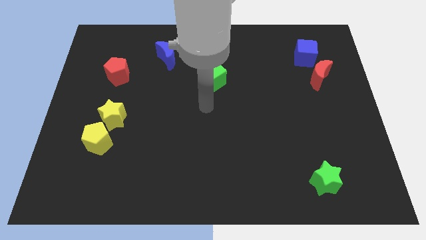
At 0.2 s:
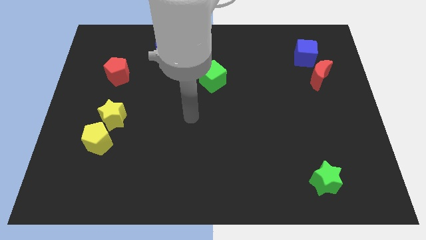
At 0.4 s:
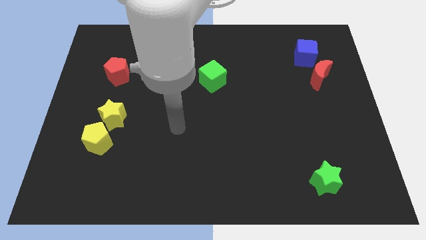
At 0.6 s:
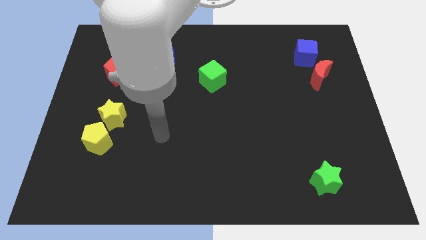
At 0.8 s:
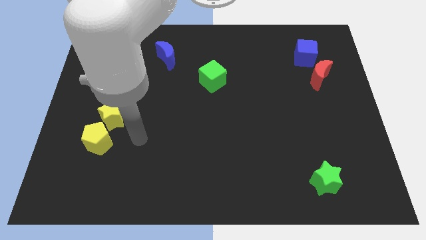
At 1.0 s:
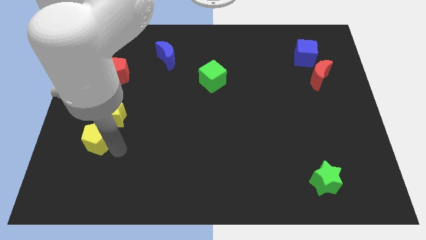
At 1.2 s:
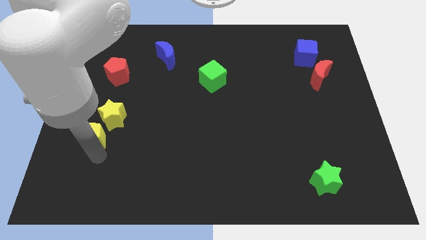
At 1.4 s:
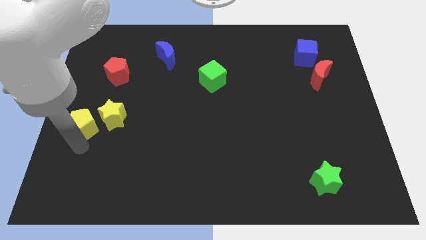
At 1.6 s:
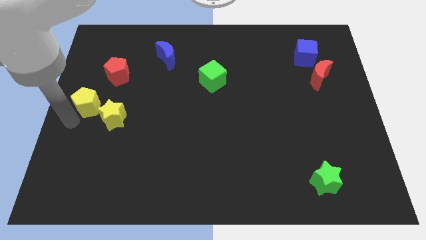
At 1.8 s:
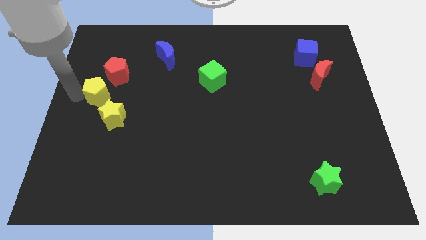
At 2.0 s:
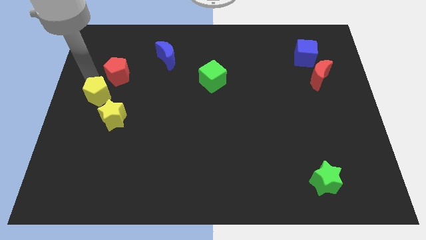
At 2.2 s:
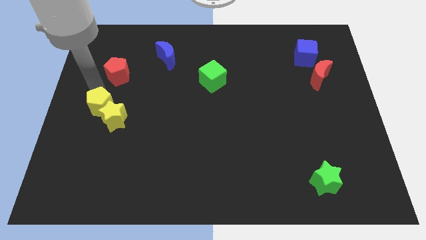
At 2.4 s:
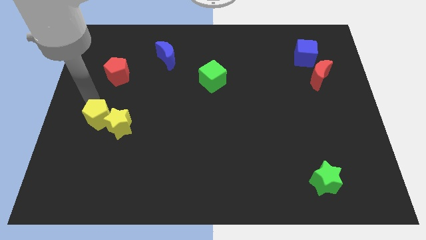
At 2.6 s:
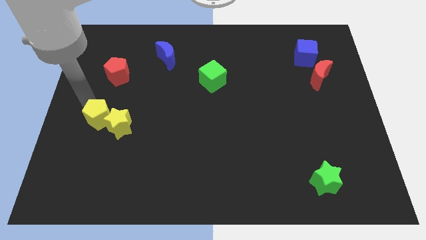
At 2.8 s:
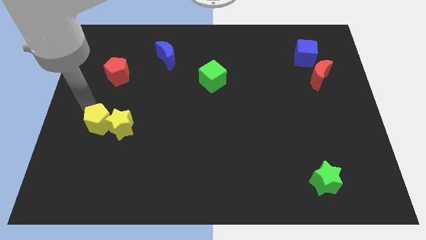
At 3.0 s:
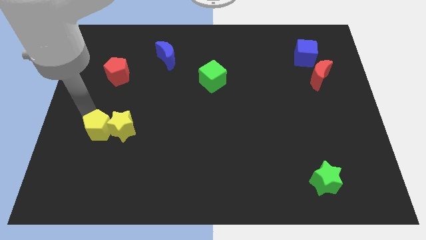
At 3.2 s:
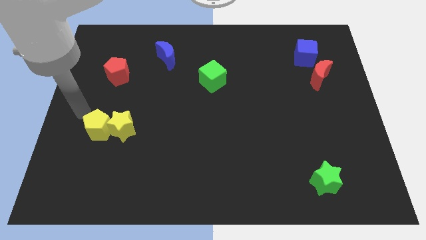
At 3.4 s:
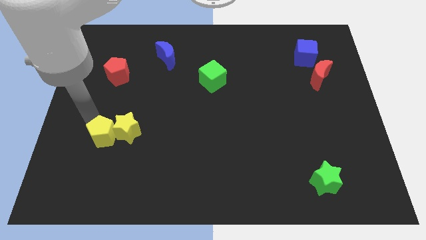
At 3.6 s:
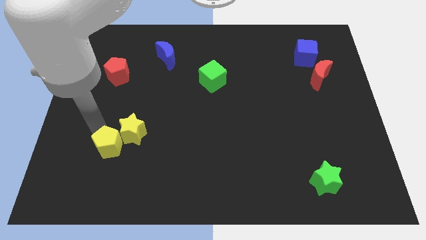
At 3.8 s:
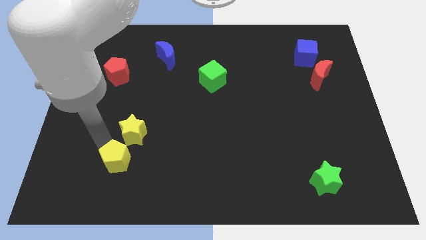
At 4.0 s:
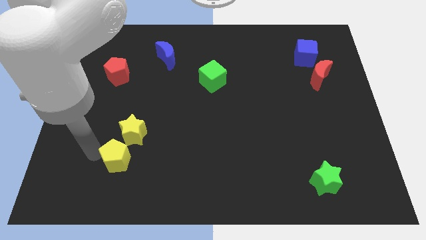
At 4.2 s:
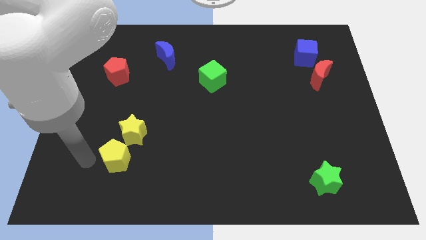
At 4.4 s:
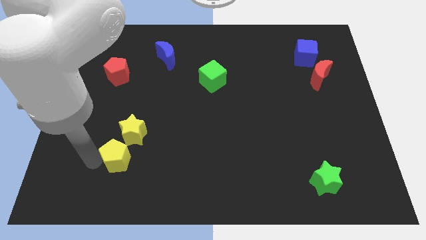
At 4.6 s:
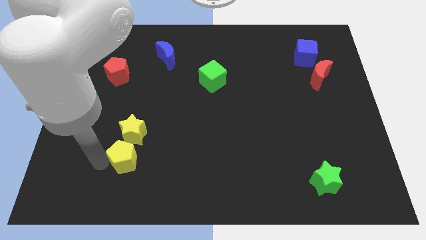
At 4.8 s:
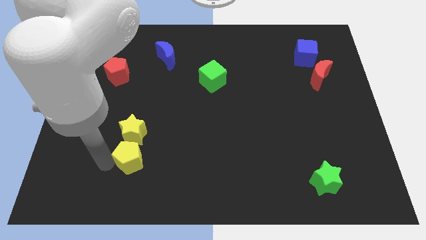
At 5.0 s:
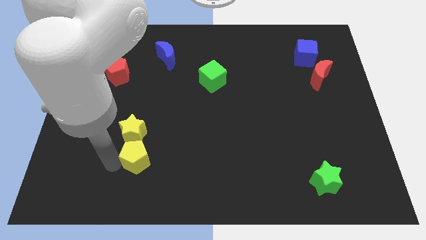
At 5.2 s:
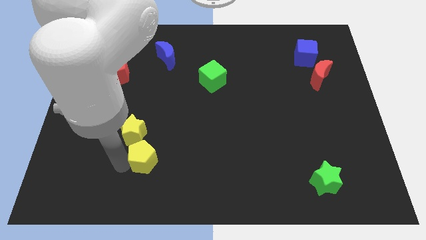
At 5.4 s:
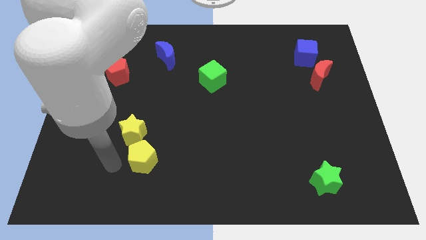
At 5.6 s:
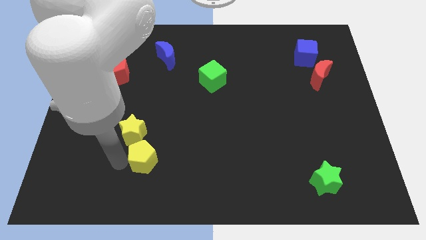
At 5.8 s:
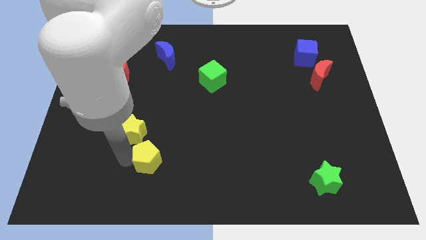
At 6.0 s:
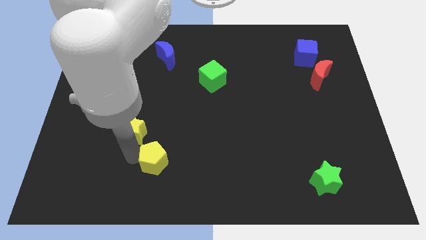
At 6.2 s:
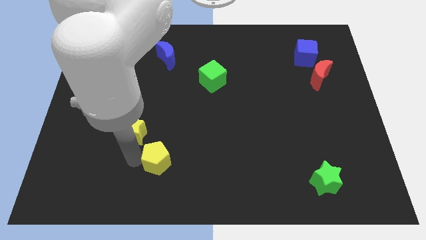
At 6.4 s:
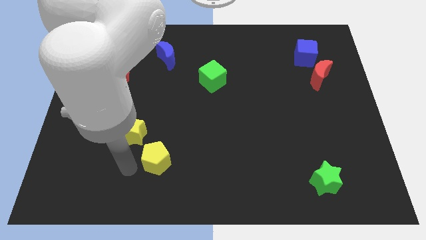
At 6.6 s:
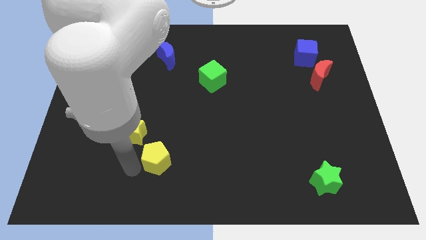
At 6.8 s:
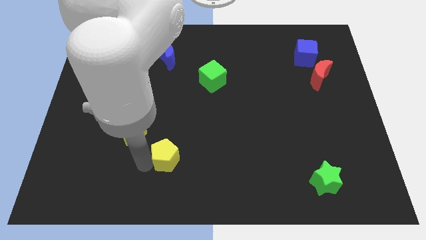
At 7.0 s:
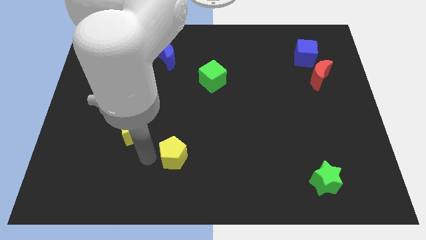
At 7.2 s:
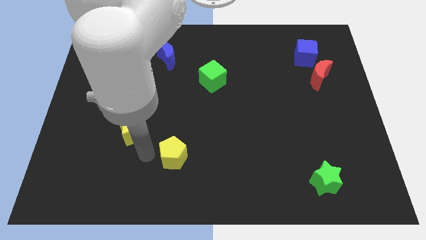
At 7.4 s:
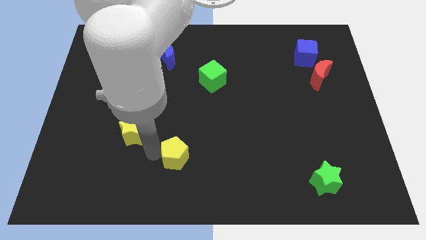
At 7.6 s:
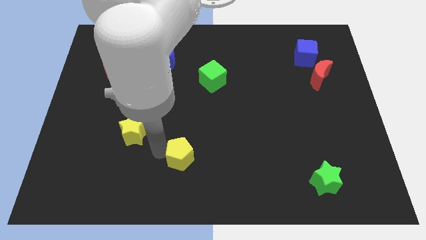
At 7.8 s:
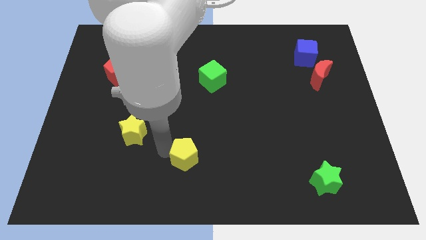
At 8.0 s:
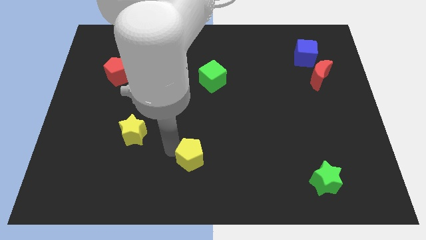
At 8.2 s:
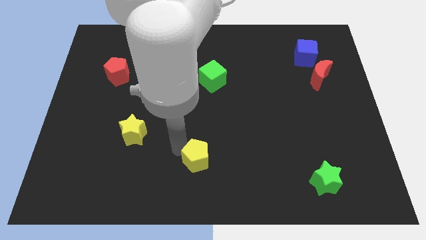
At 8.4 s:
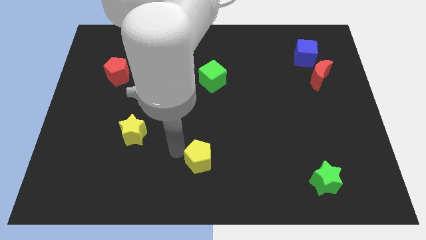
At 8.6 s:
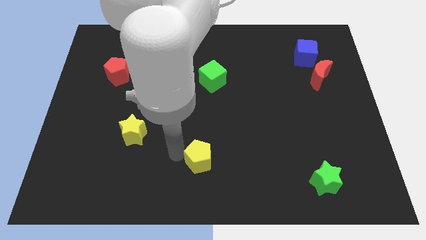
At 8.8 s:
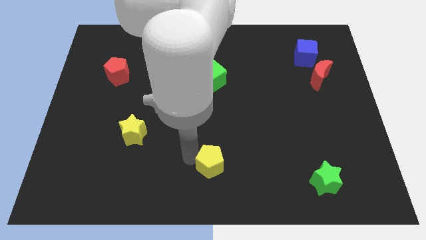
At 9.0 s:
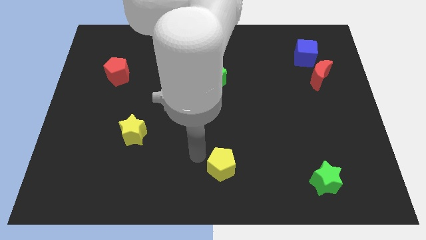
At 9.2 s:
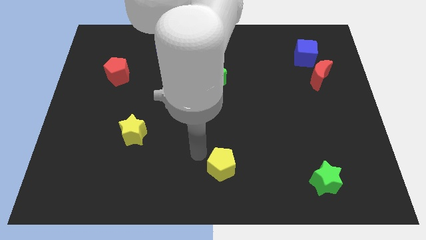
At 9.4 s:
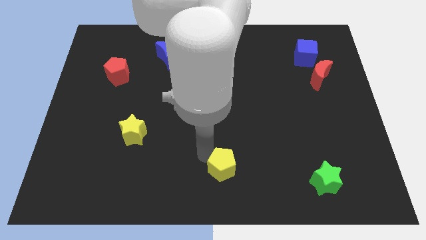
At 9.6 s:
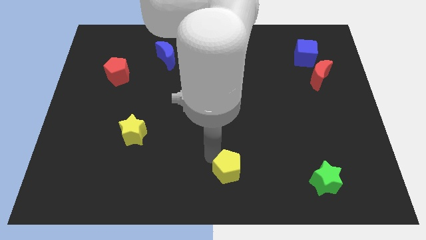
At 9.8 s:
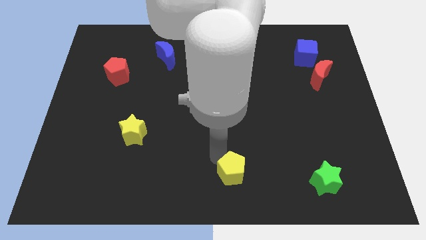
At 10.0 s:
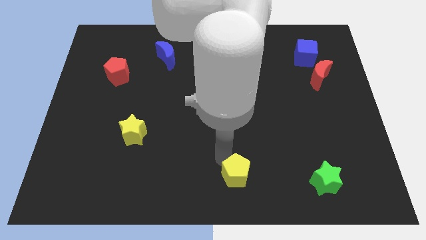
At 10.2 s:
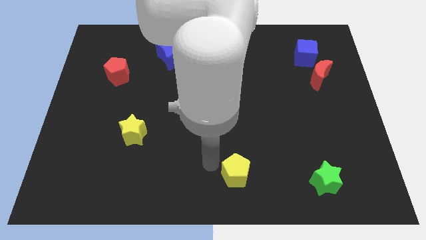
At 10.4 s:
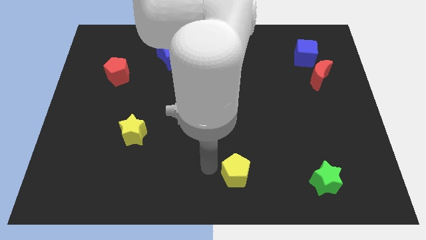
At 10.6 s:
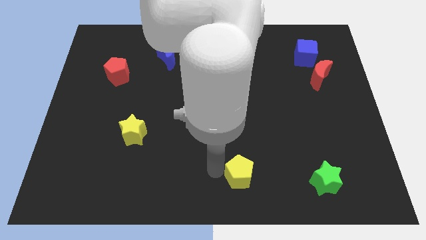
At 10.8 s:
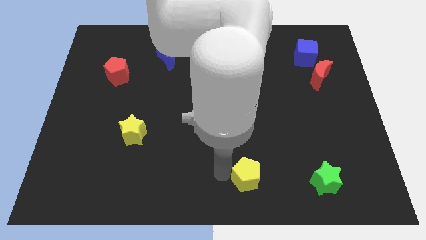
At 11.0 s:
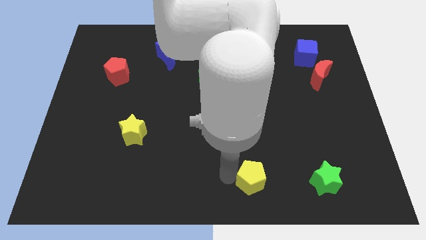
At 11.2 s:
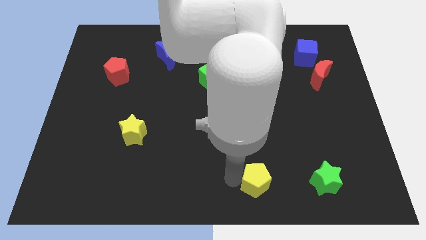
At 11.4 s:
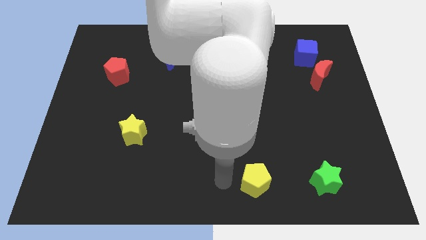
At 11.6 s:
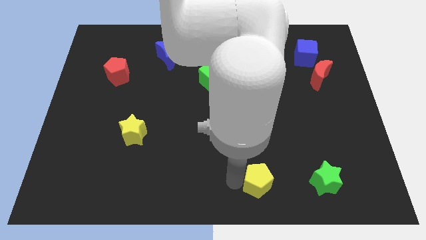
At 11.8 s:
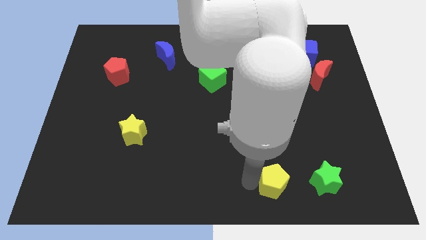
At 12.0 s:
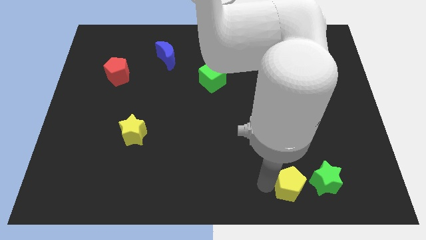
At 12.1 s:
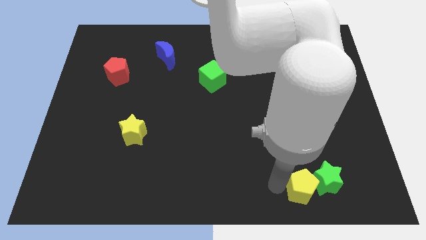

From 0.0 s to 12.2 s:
put the yellow pentagon close to the green star

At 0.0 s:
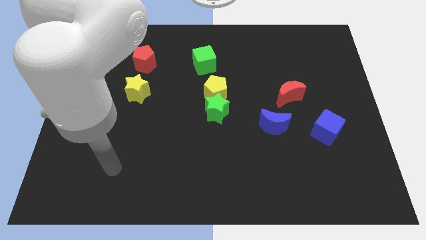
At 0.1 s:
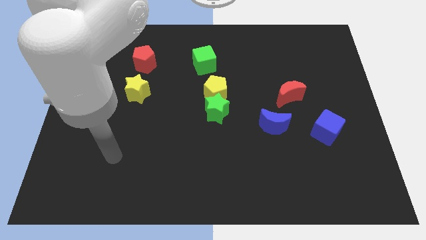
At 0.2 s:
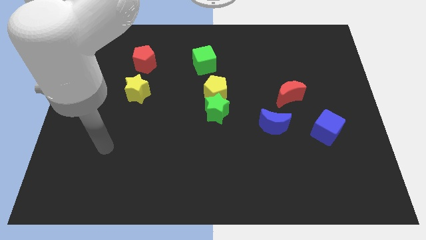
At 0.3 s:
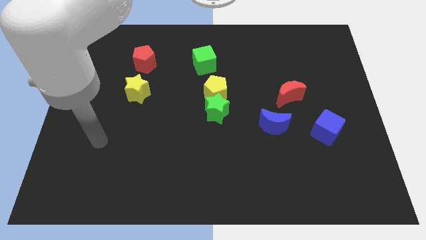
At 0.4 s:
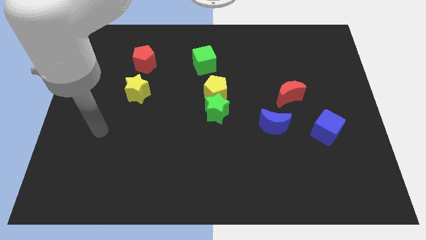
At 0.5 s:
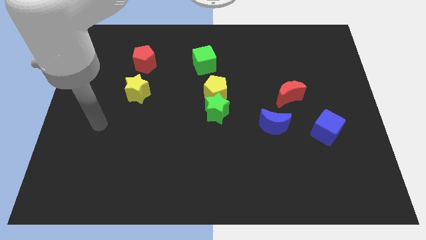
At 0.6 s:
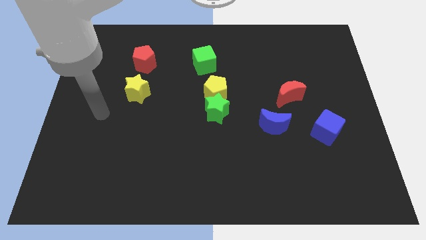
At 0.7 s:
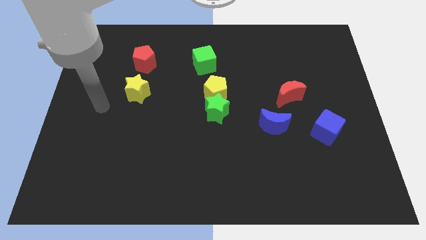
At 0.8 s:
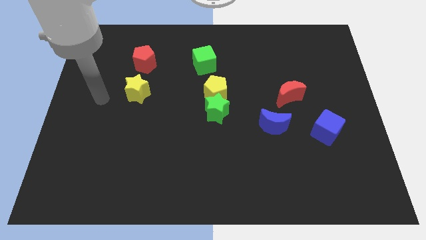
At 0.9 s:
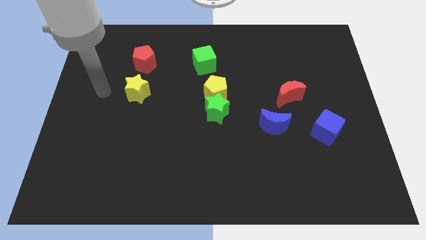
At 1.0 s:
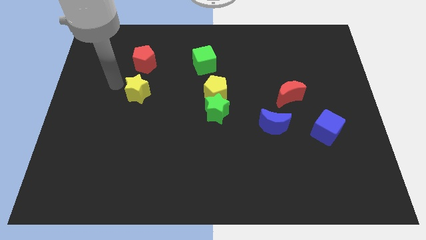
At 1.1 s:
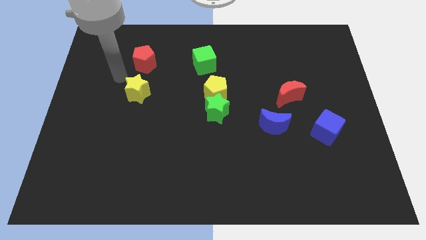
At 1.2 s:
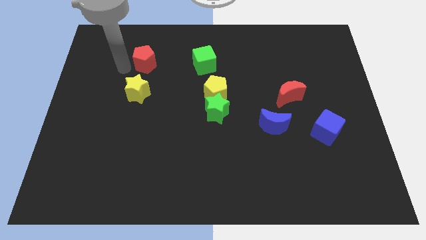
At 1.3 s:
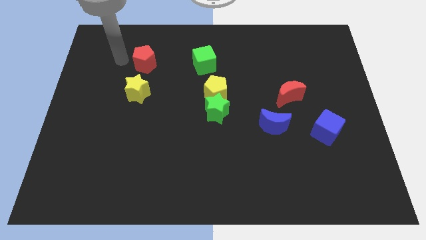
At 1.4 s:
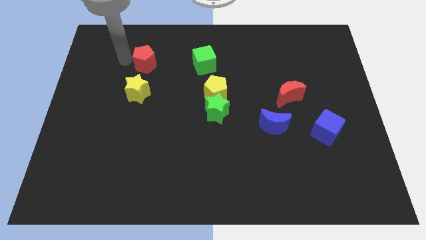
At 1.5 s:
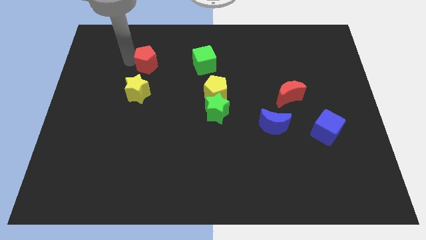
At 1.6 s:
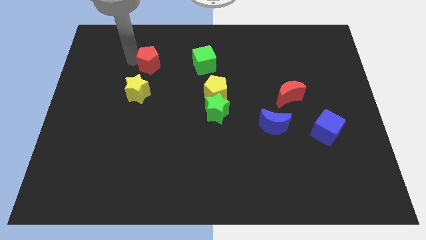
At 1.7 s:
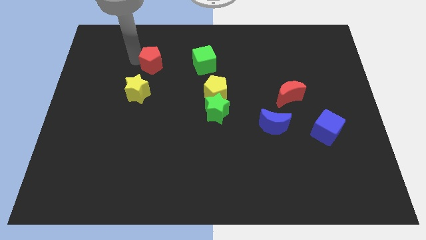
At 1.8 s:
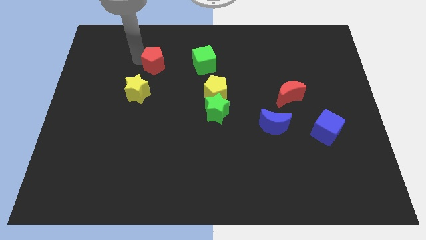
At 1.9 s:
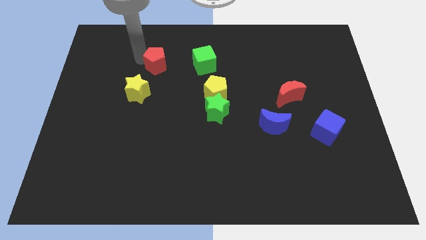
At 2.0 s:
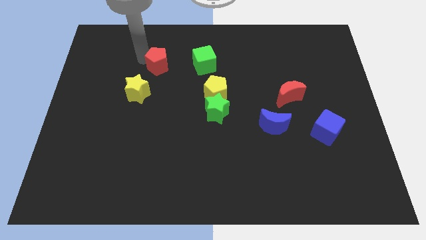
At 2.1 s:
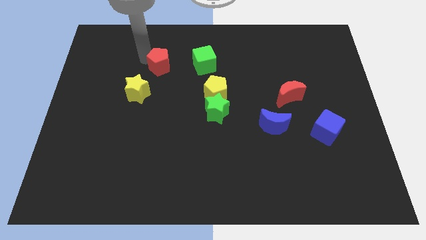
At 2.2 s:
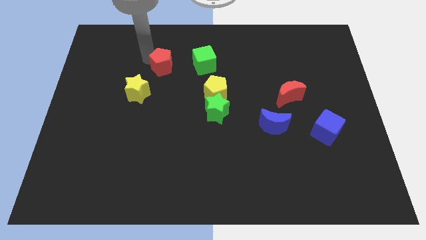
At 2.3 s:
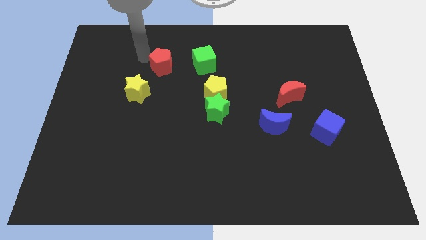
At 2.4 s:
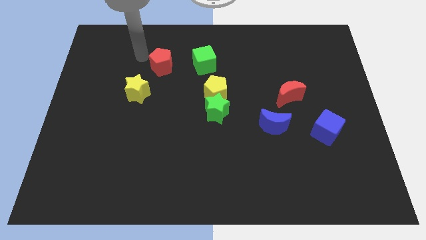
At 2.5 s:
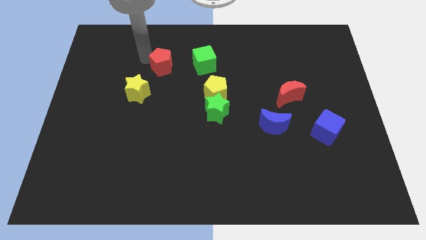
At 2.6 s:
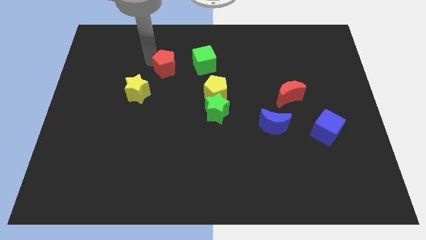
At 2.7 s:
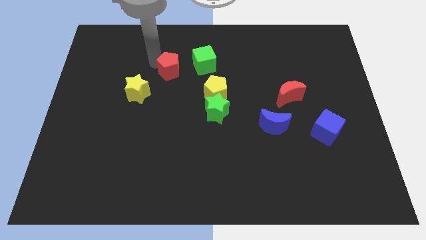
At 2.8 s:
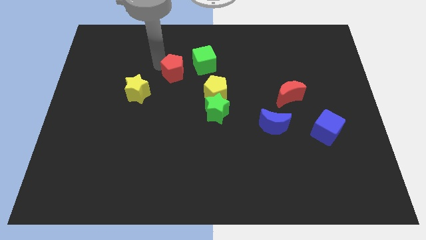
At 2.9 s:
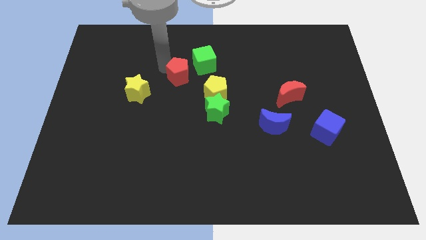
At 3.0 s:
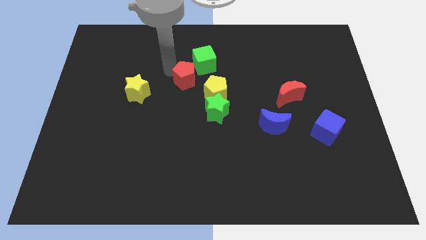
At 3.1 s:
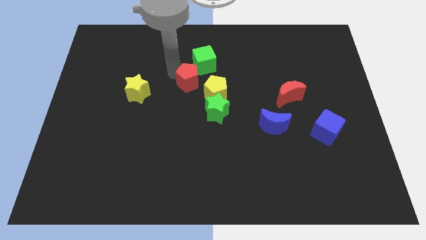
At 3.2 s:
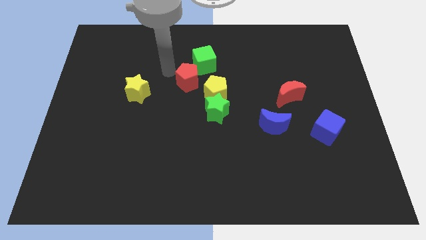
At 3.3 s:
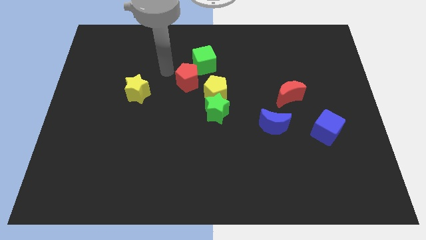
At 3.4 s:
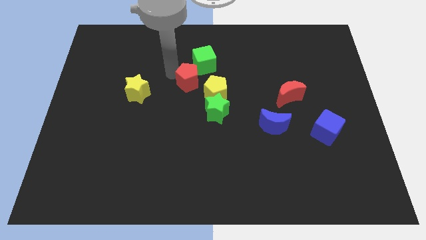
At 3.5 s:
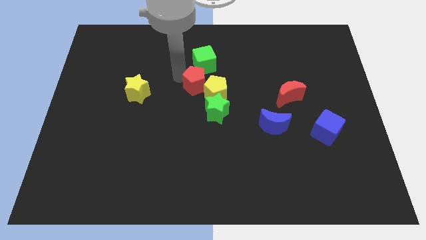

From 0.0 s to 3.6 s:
move the red pentagon close to the yellow pentagon
